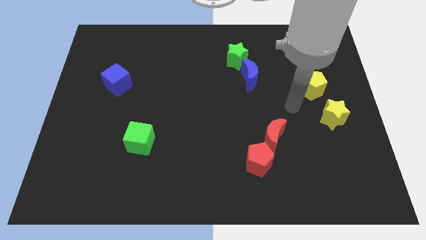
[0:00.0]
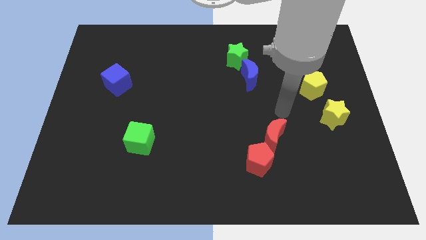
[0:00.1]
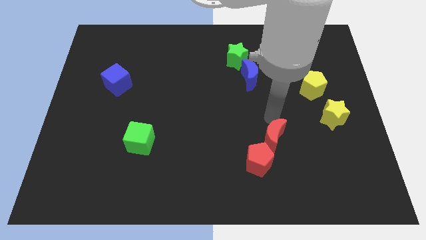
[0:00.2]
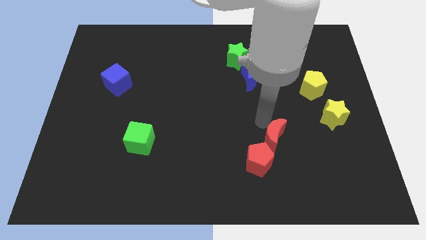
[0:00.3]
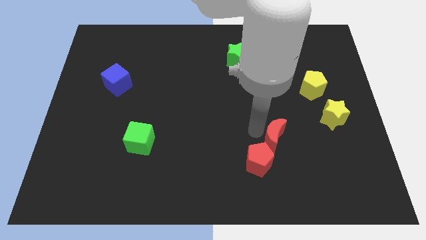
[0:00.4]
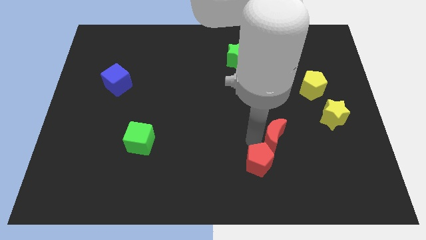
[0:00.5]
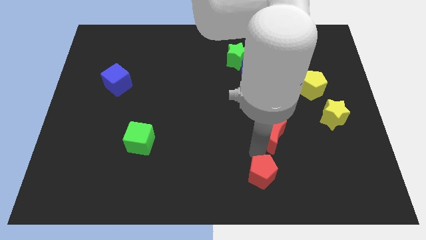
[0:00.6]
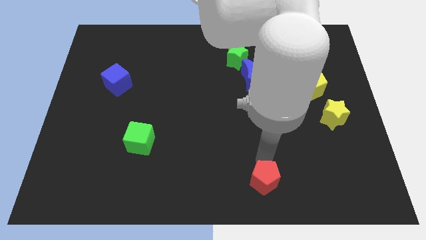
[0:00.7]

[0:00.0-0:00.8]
pull the red moon apart from the red pentagon

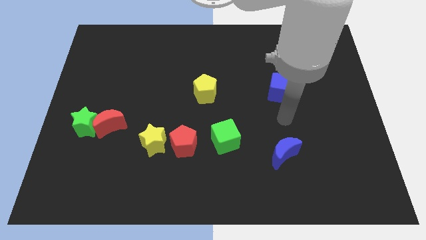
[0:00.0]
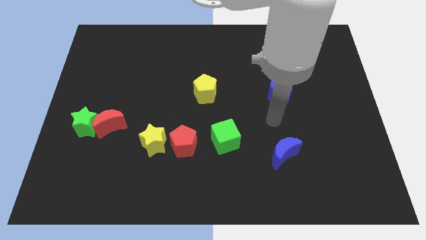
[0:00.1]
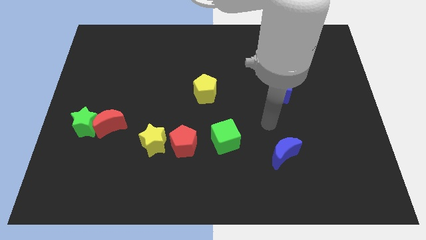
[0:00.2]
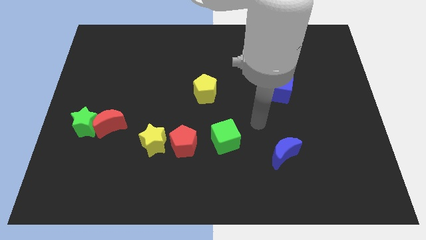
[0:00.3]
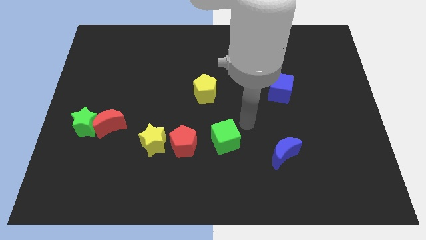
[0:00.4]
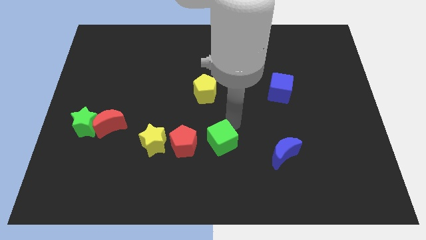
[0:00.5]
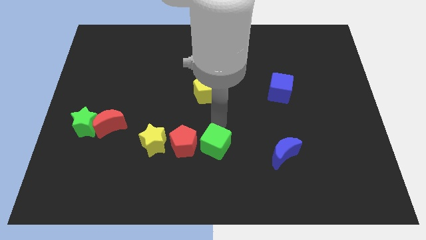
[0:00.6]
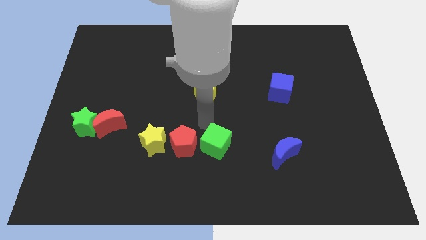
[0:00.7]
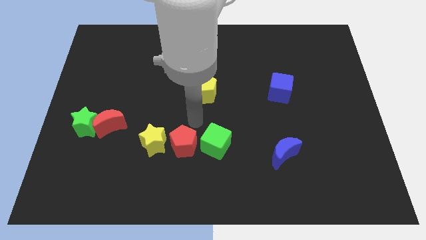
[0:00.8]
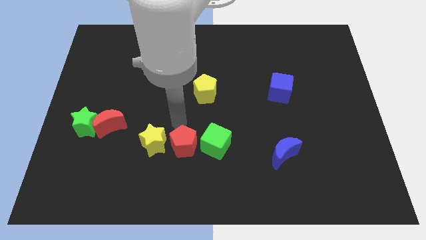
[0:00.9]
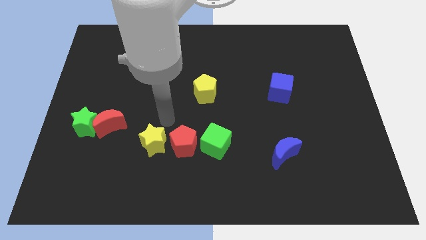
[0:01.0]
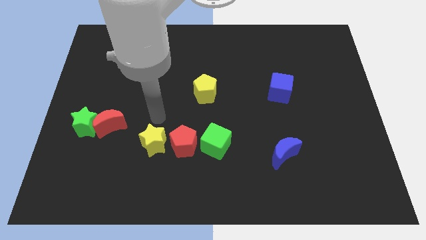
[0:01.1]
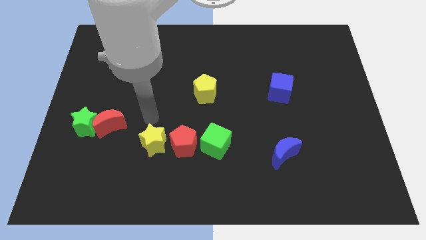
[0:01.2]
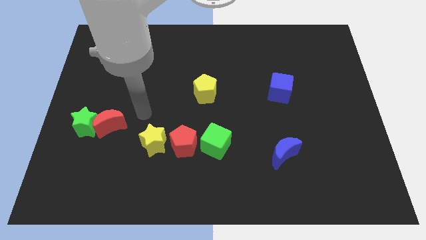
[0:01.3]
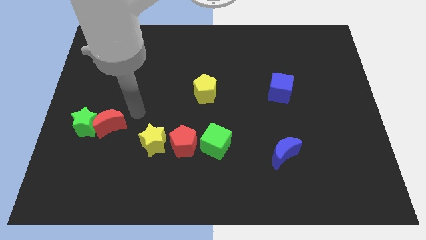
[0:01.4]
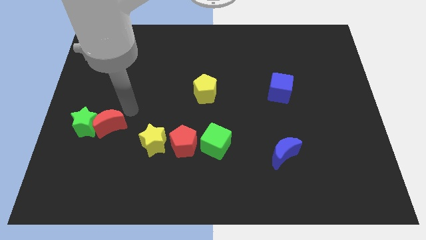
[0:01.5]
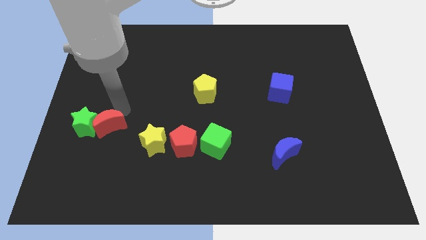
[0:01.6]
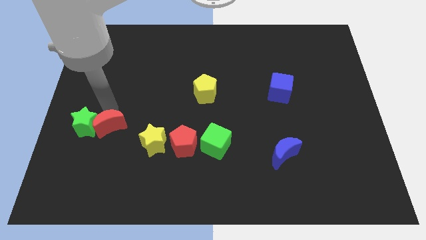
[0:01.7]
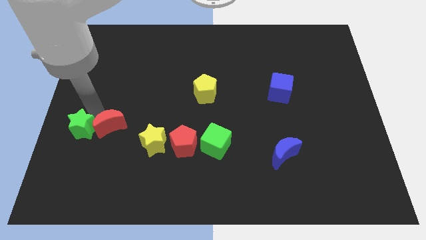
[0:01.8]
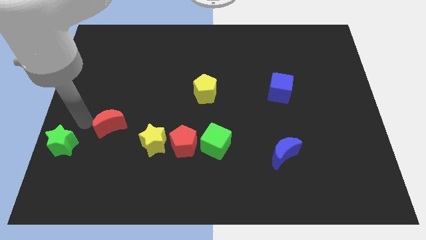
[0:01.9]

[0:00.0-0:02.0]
separate the red moon from the green star

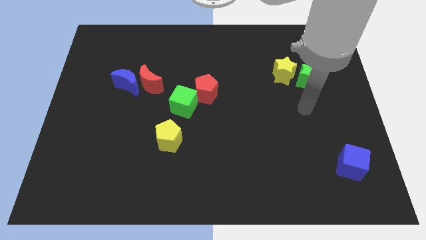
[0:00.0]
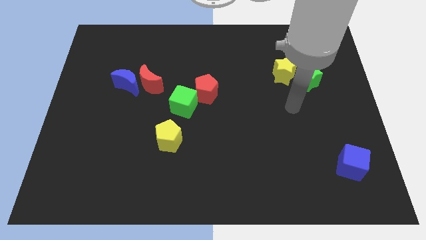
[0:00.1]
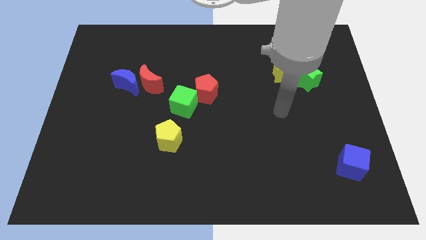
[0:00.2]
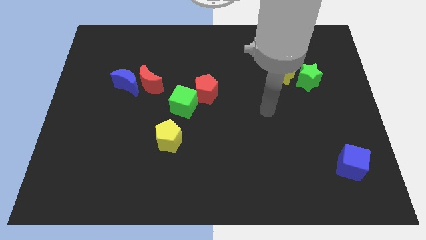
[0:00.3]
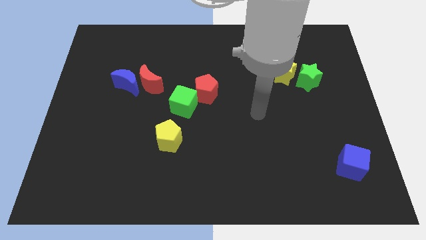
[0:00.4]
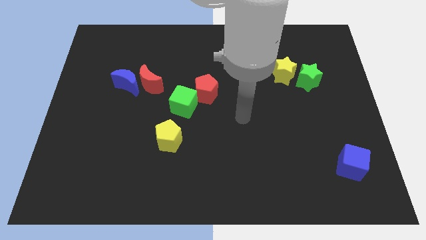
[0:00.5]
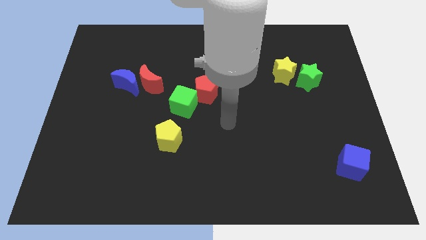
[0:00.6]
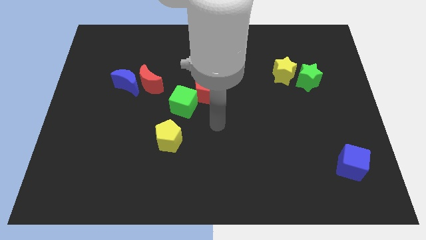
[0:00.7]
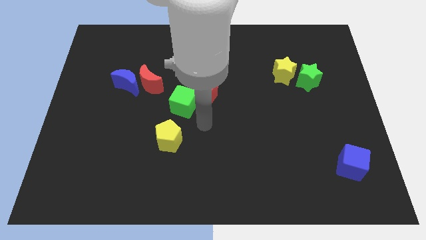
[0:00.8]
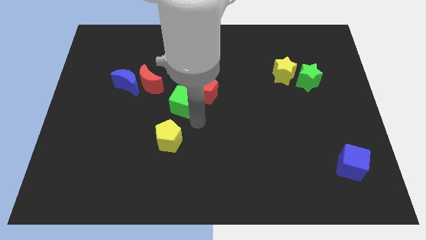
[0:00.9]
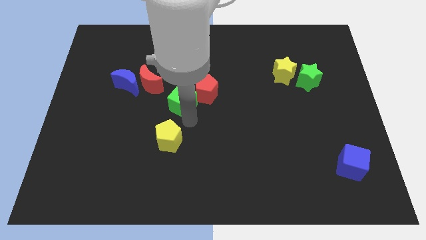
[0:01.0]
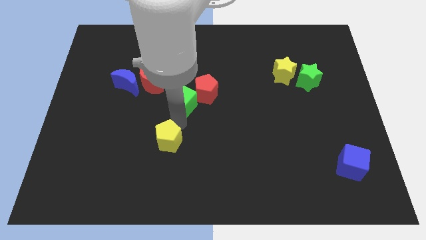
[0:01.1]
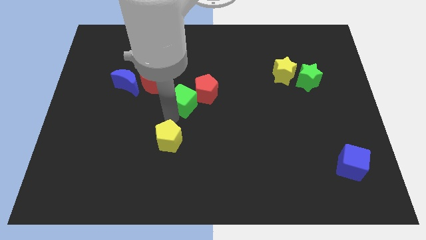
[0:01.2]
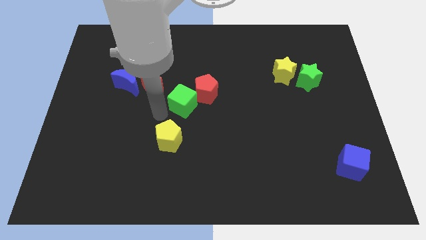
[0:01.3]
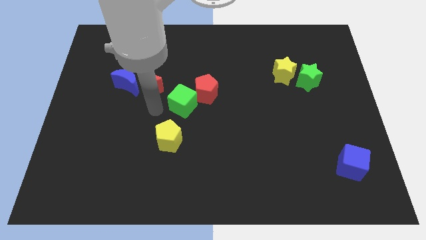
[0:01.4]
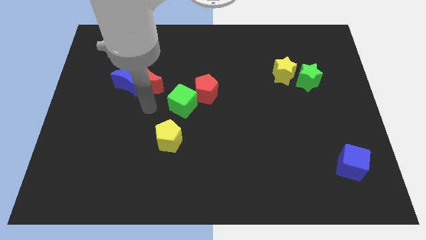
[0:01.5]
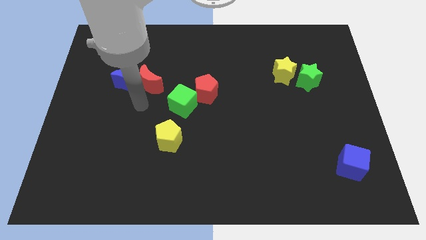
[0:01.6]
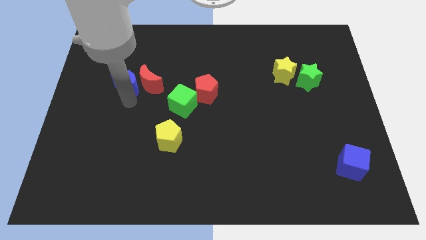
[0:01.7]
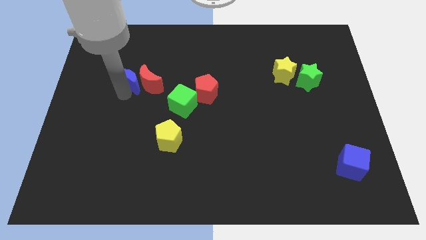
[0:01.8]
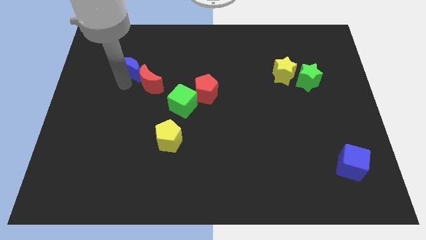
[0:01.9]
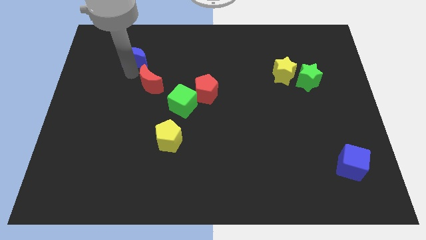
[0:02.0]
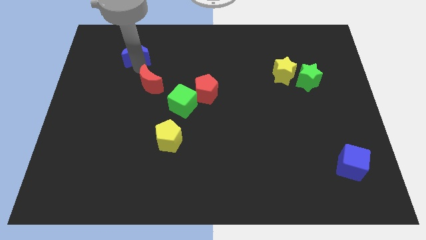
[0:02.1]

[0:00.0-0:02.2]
separate the red moon from the blue moon

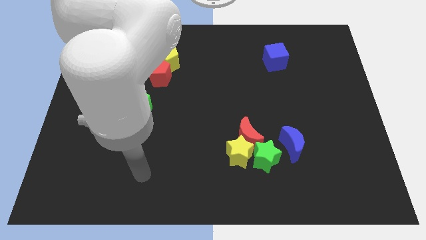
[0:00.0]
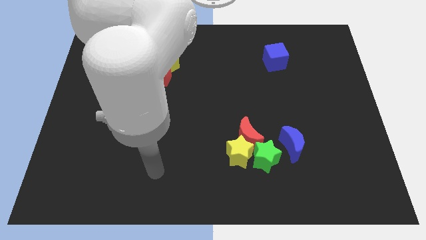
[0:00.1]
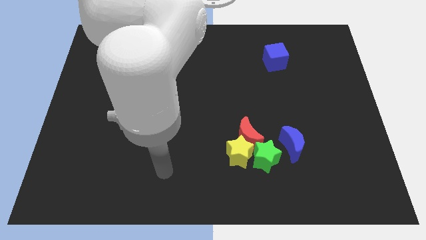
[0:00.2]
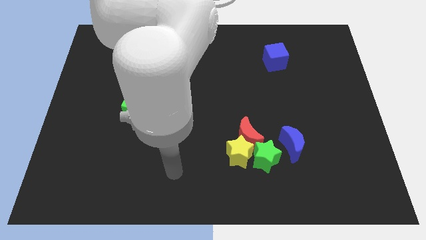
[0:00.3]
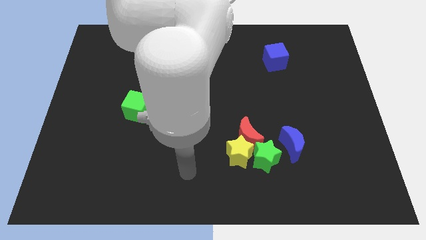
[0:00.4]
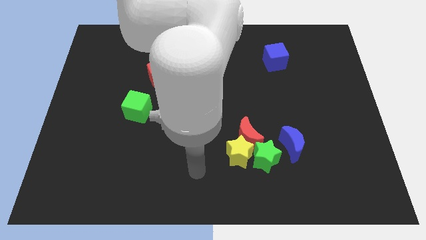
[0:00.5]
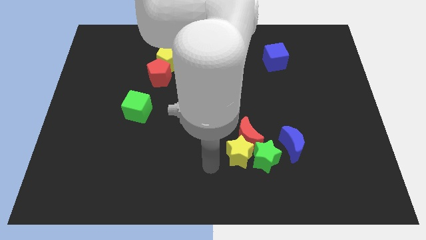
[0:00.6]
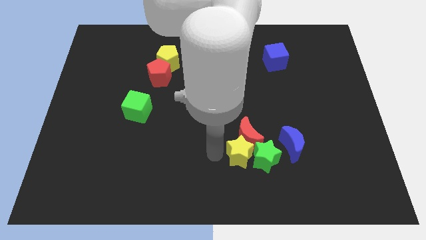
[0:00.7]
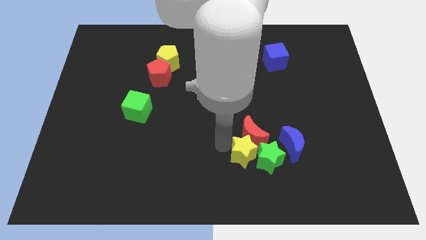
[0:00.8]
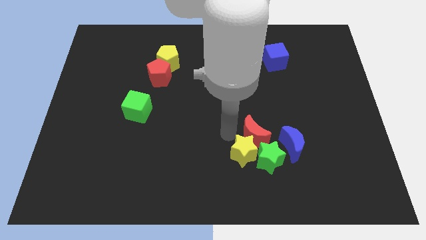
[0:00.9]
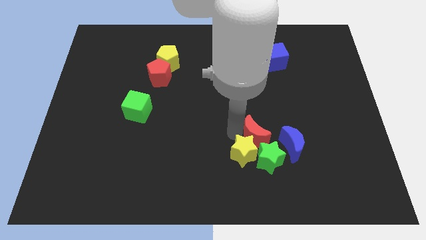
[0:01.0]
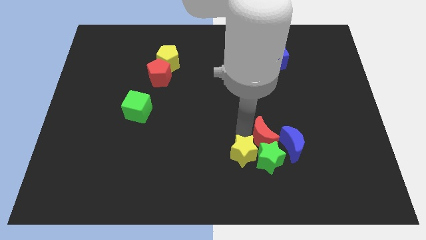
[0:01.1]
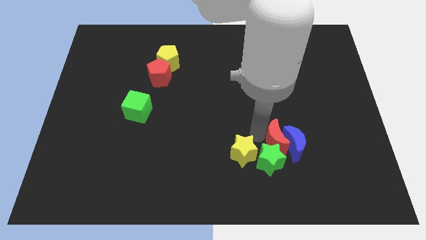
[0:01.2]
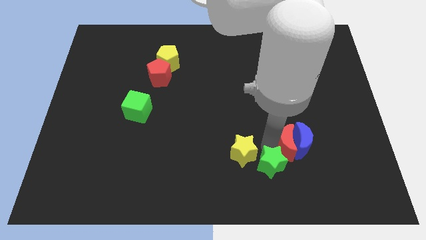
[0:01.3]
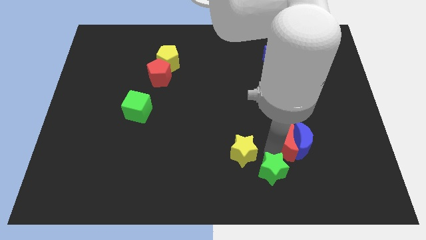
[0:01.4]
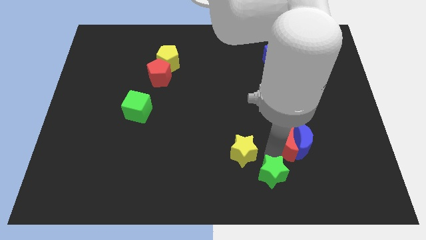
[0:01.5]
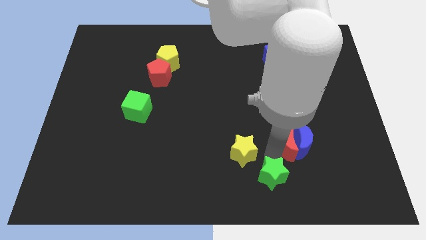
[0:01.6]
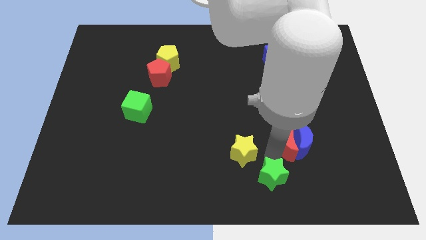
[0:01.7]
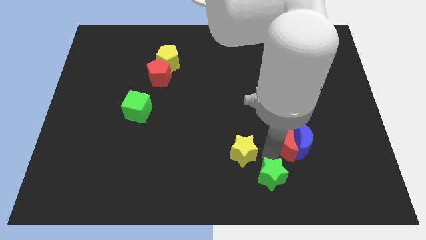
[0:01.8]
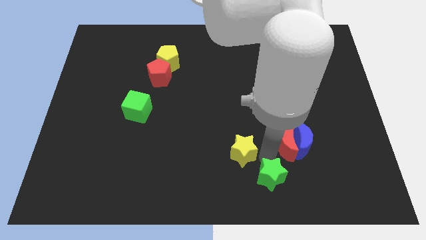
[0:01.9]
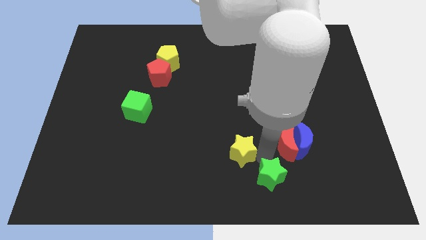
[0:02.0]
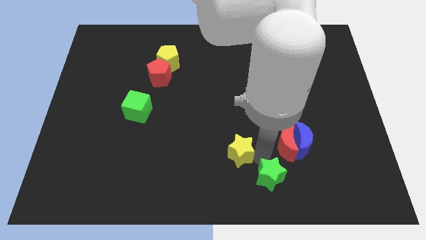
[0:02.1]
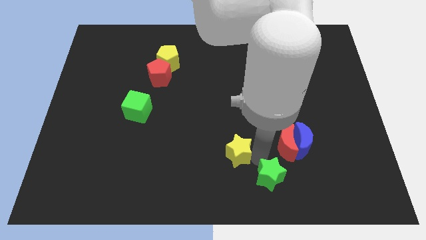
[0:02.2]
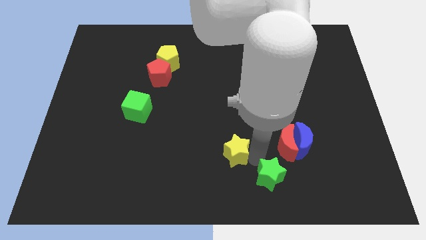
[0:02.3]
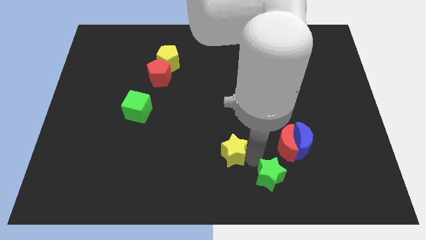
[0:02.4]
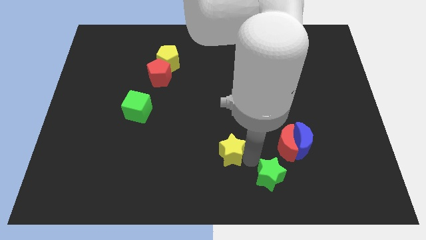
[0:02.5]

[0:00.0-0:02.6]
separate the yellow star from the red moon and green star

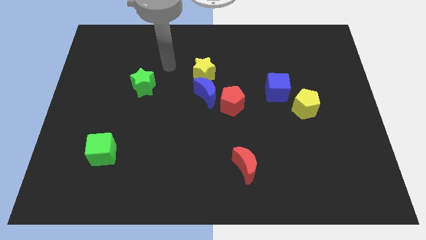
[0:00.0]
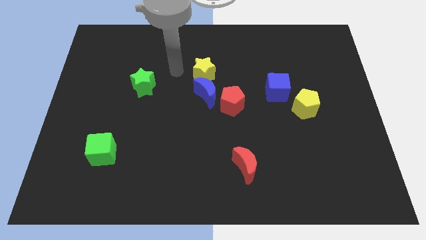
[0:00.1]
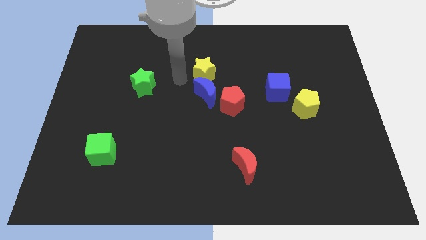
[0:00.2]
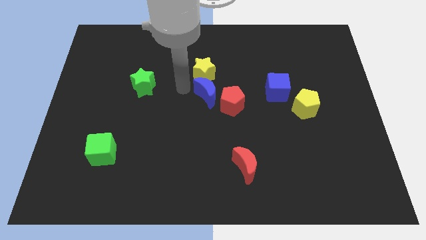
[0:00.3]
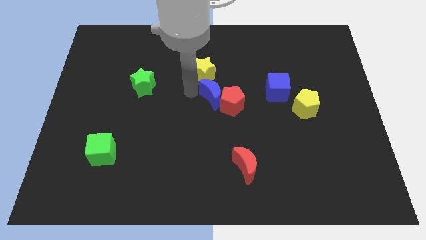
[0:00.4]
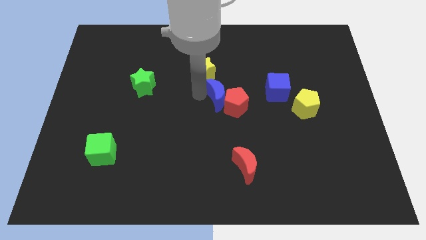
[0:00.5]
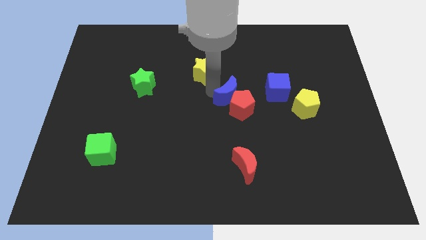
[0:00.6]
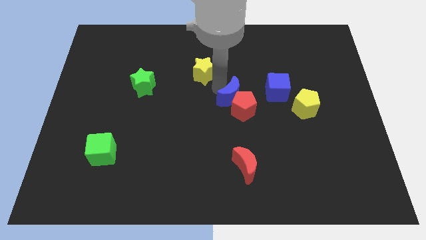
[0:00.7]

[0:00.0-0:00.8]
move the yellow star away from the blue moon

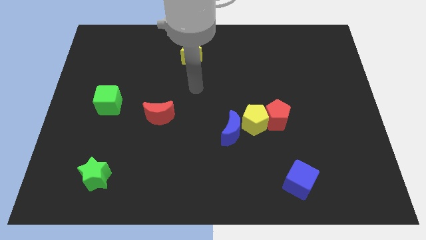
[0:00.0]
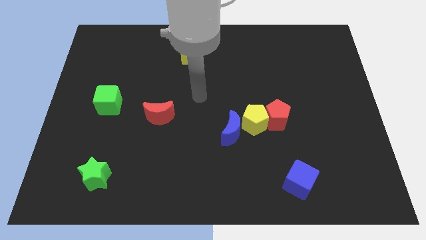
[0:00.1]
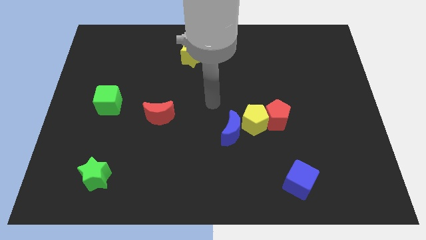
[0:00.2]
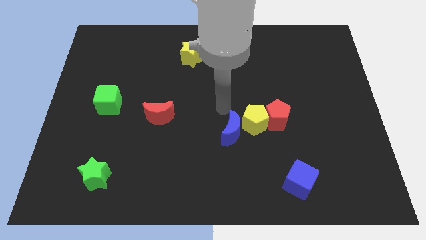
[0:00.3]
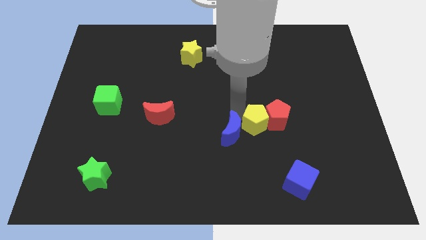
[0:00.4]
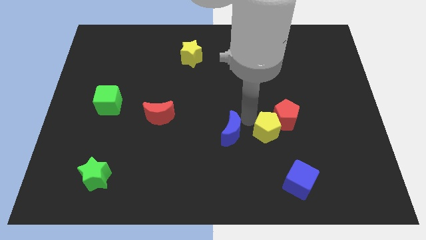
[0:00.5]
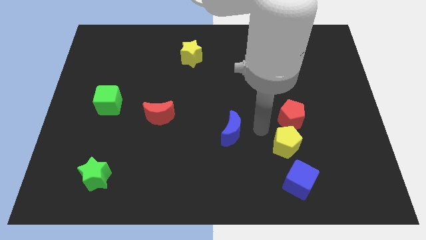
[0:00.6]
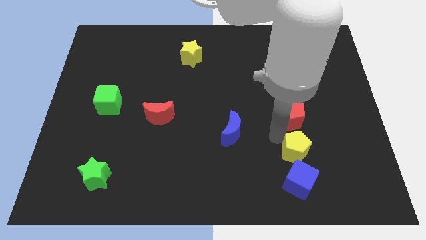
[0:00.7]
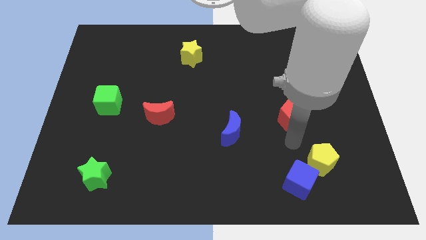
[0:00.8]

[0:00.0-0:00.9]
separate the red pentagon from the yellow pentagon
